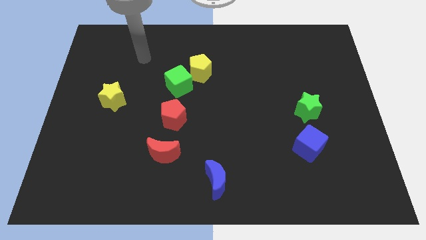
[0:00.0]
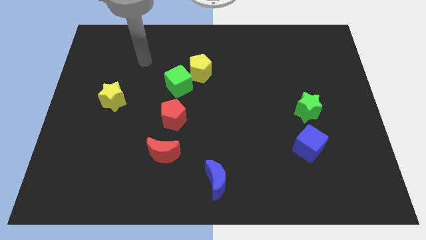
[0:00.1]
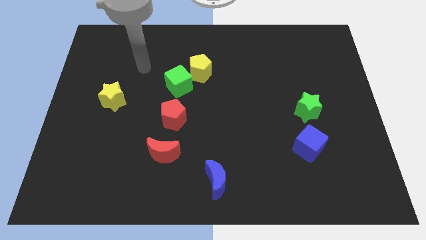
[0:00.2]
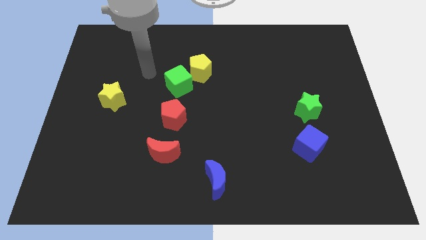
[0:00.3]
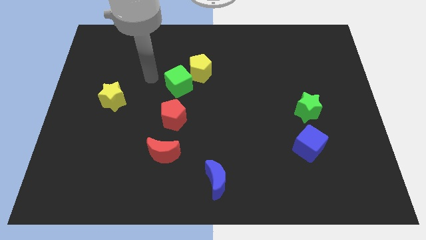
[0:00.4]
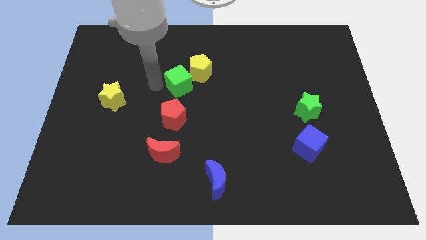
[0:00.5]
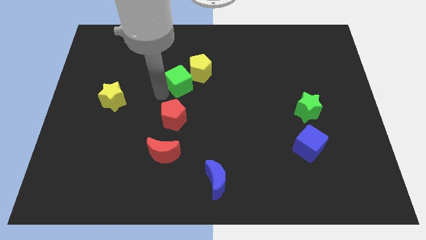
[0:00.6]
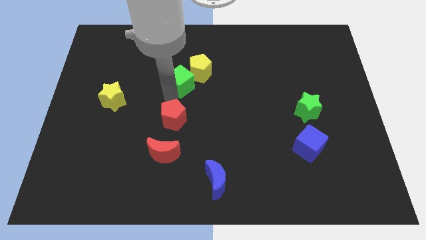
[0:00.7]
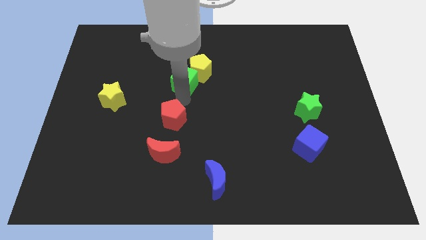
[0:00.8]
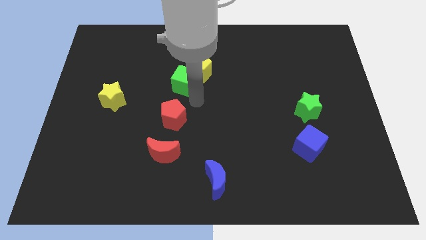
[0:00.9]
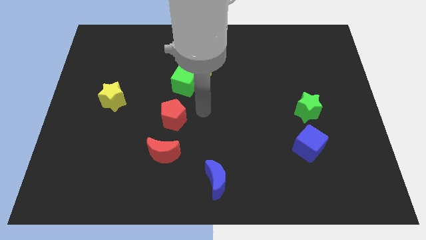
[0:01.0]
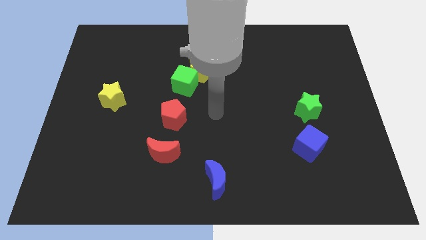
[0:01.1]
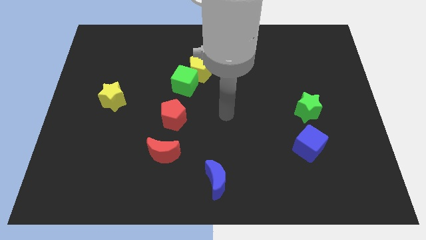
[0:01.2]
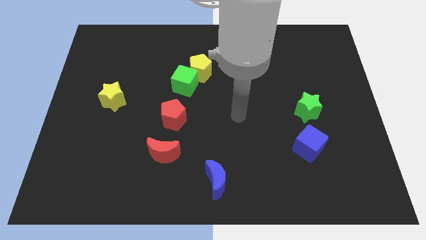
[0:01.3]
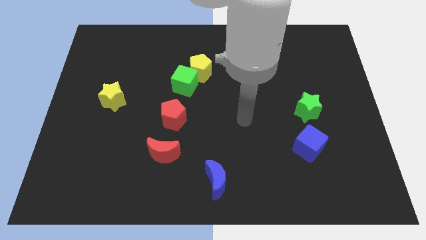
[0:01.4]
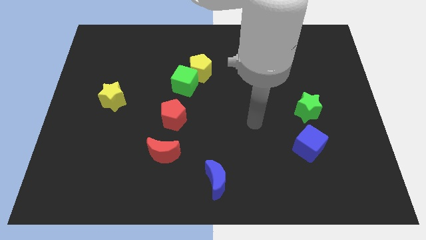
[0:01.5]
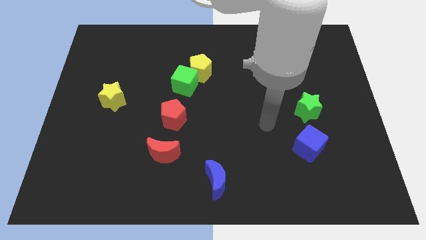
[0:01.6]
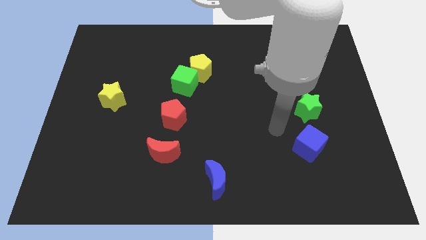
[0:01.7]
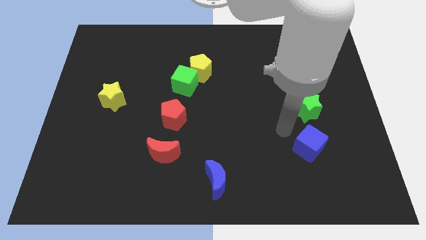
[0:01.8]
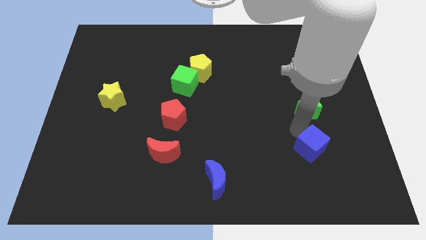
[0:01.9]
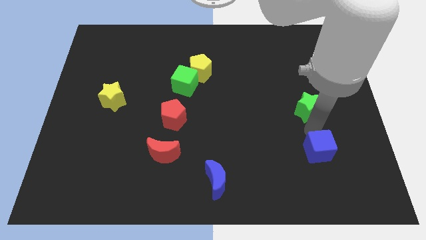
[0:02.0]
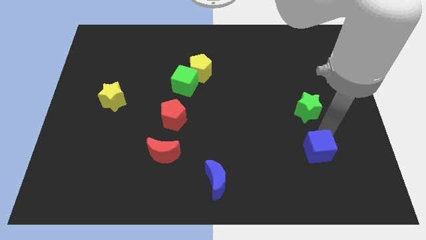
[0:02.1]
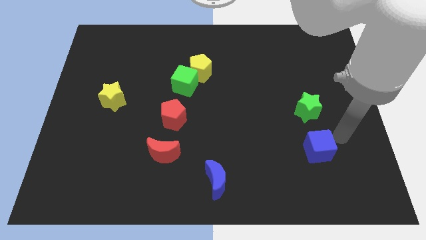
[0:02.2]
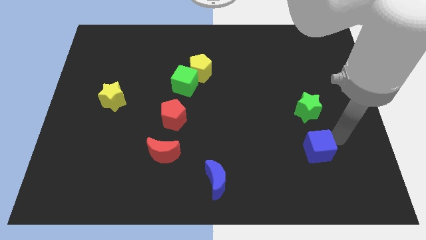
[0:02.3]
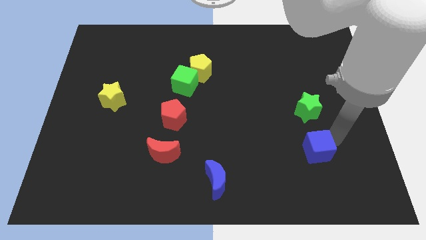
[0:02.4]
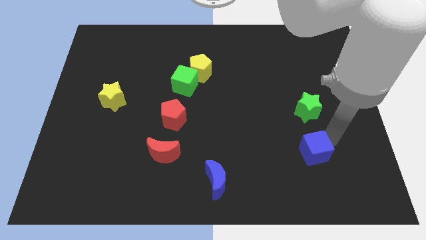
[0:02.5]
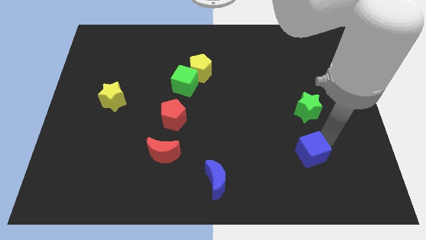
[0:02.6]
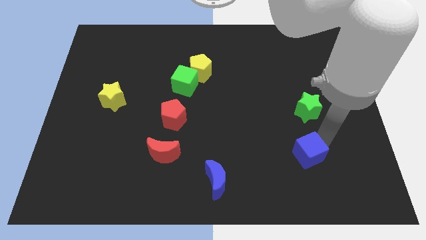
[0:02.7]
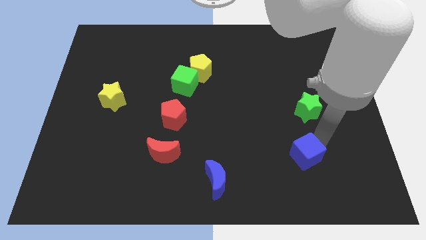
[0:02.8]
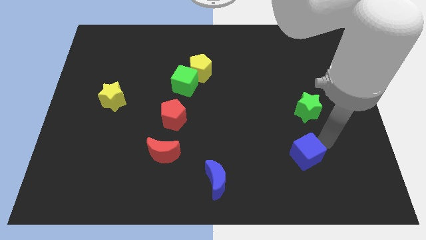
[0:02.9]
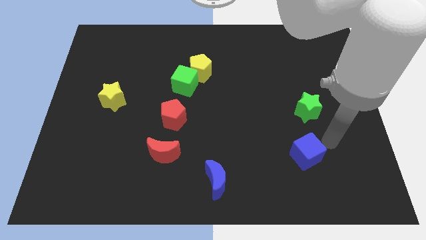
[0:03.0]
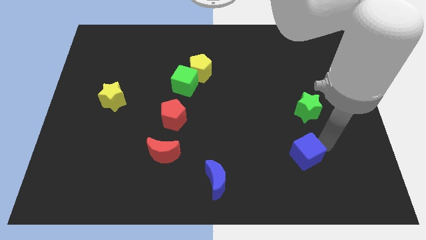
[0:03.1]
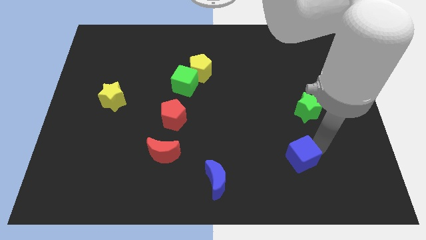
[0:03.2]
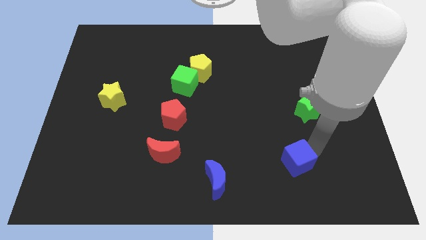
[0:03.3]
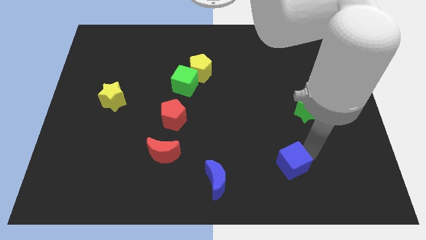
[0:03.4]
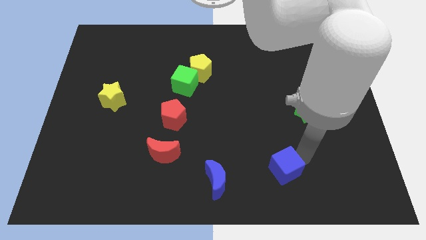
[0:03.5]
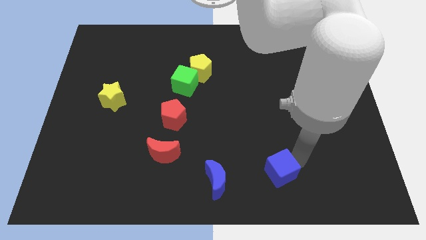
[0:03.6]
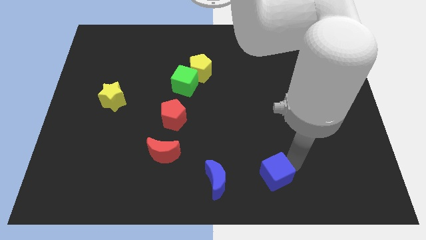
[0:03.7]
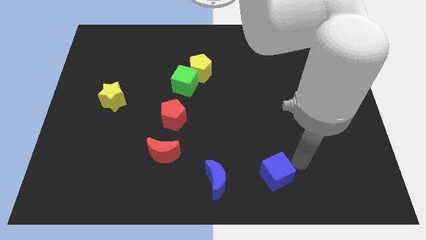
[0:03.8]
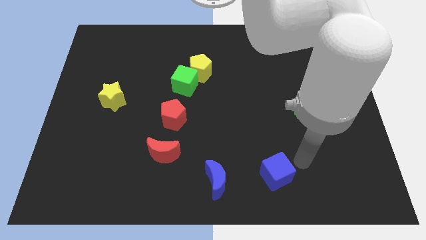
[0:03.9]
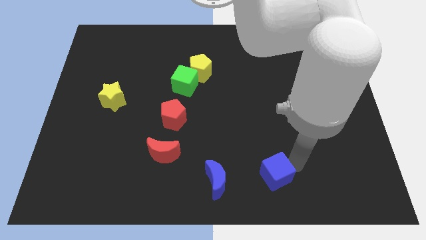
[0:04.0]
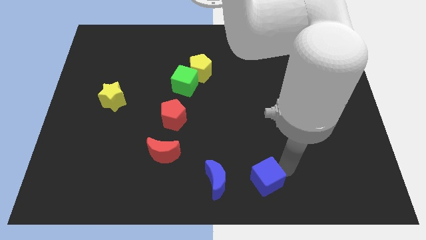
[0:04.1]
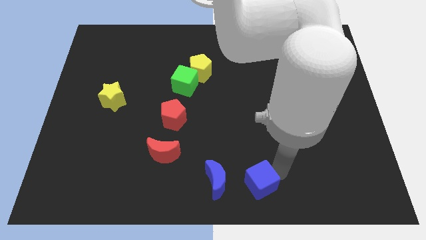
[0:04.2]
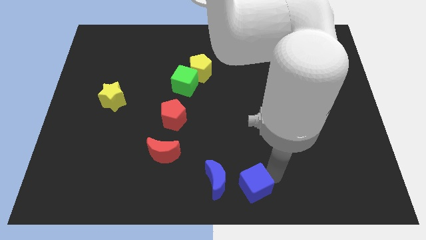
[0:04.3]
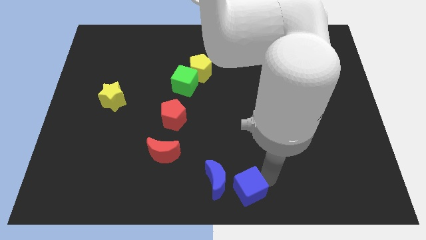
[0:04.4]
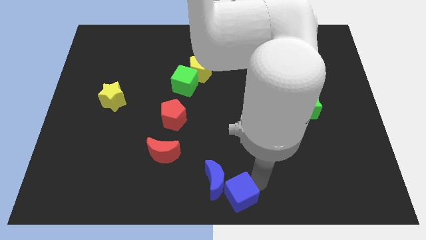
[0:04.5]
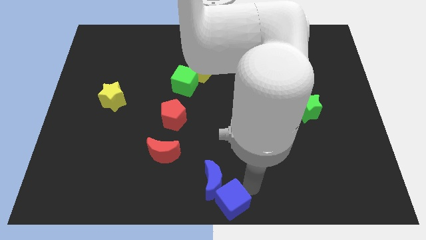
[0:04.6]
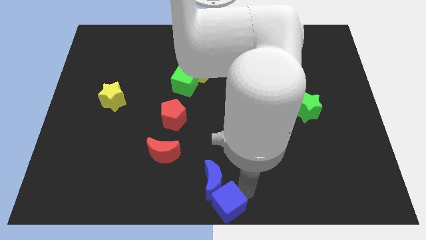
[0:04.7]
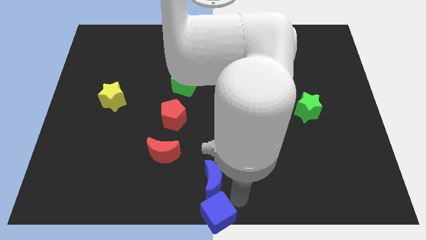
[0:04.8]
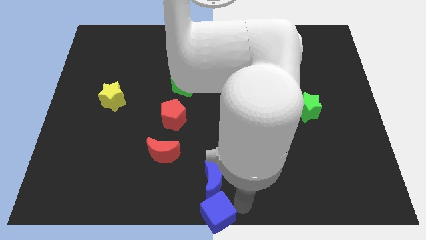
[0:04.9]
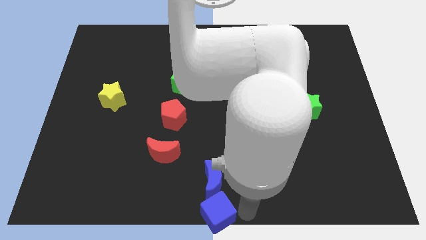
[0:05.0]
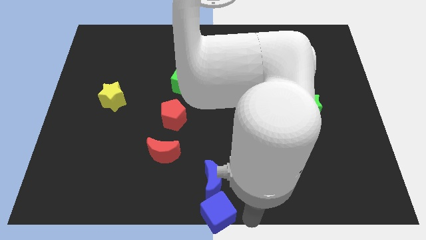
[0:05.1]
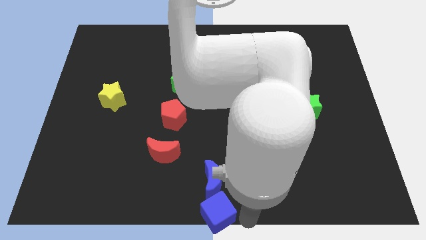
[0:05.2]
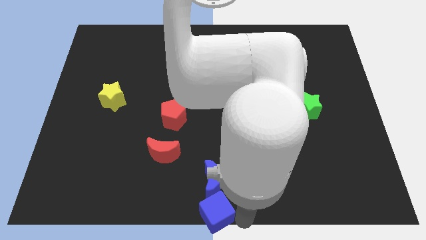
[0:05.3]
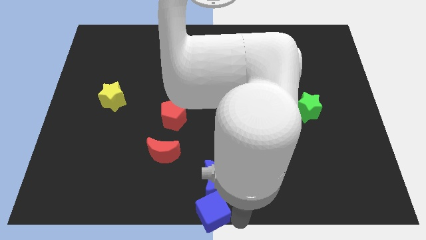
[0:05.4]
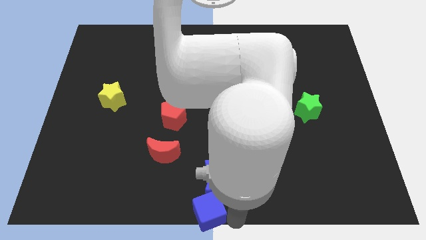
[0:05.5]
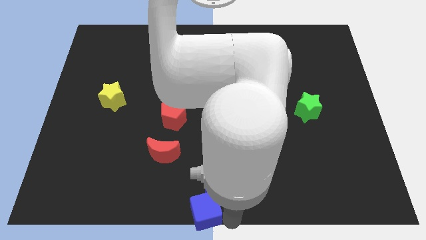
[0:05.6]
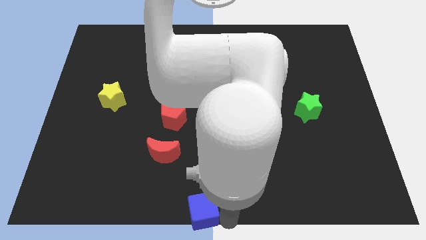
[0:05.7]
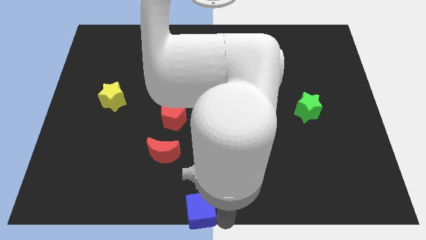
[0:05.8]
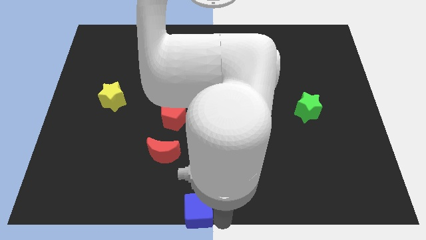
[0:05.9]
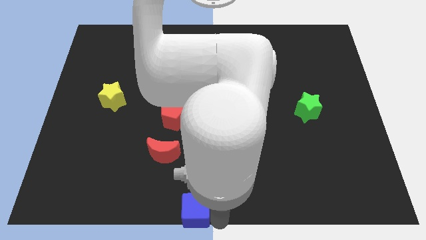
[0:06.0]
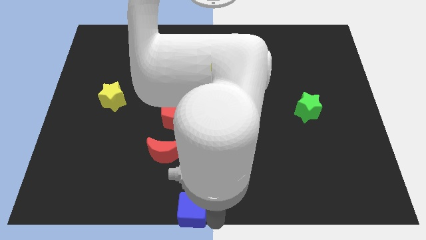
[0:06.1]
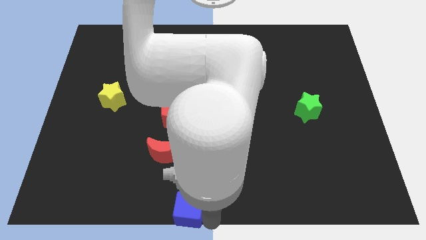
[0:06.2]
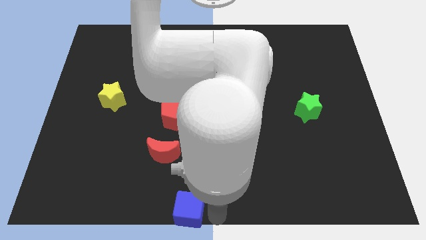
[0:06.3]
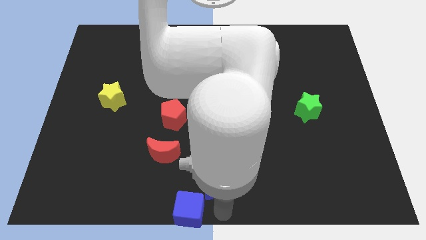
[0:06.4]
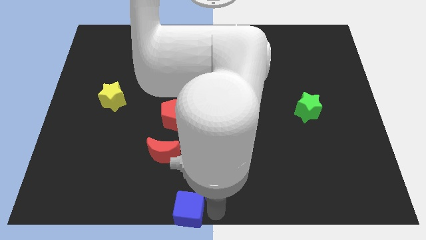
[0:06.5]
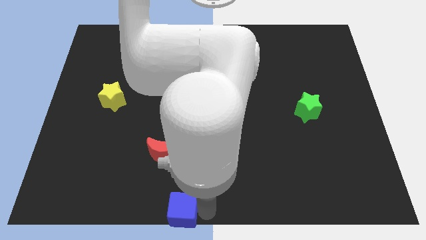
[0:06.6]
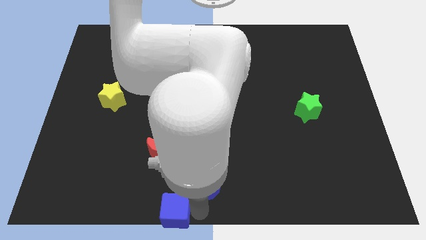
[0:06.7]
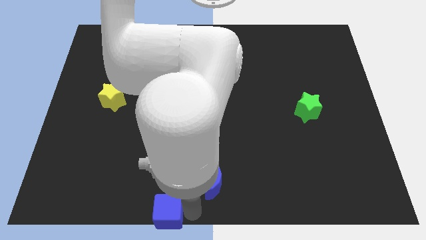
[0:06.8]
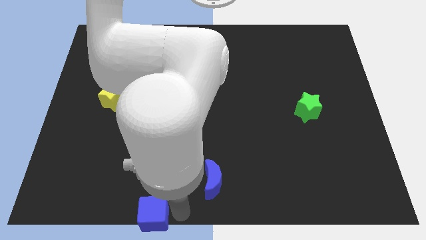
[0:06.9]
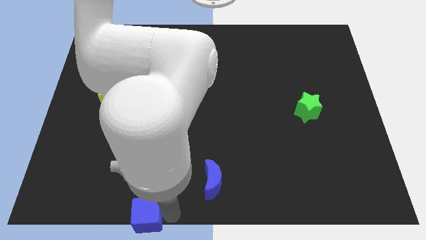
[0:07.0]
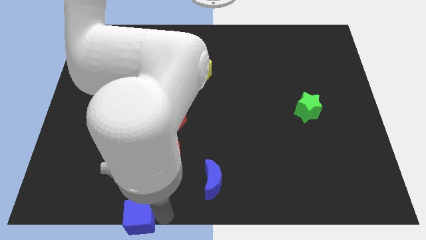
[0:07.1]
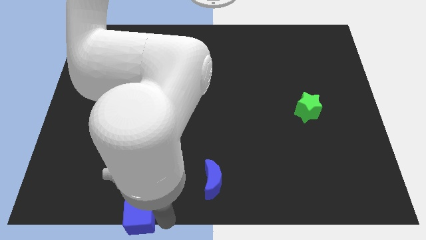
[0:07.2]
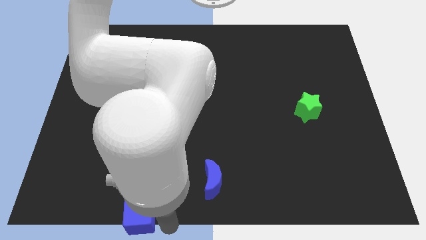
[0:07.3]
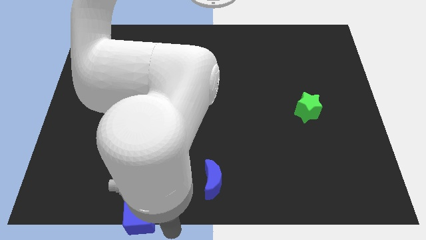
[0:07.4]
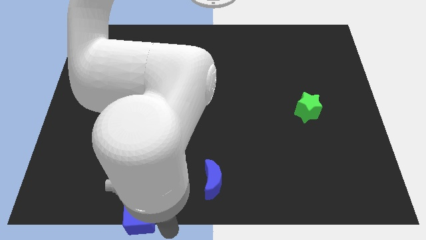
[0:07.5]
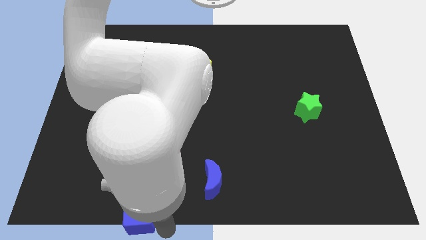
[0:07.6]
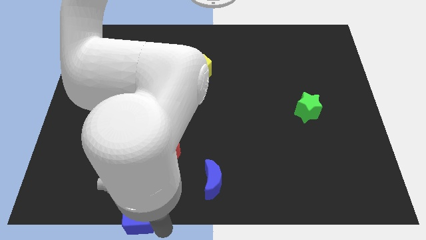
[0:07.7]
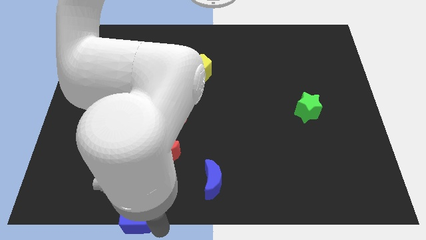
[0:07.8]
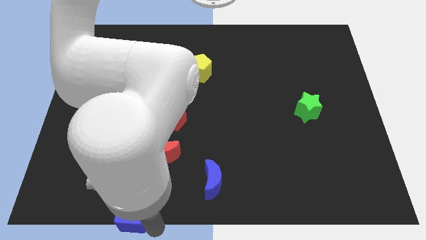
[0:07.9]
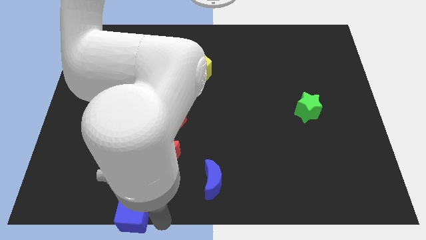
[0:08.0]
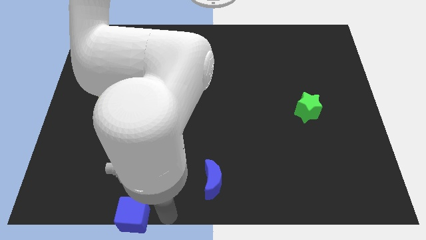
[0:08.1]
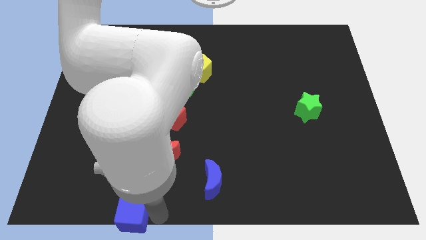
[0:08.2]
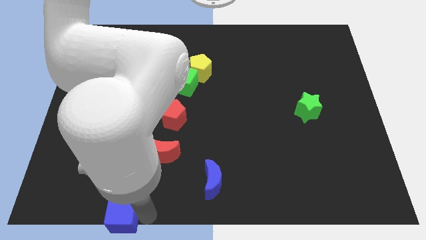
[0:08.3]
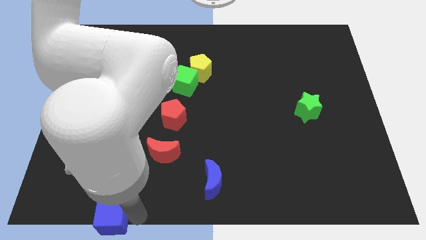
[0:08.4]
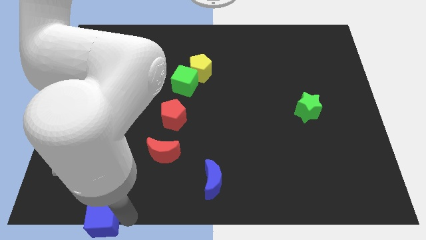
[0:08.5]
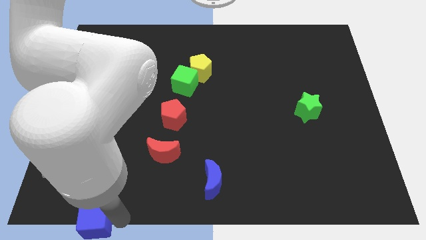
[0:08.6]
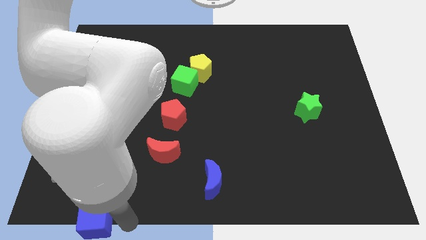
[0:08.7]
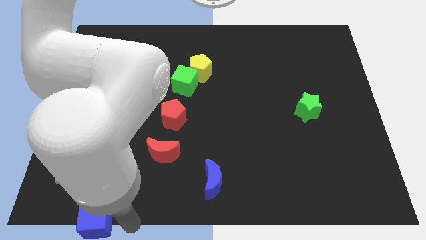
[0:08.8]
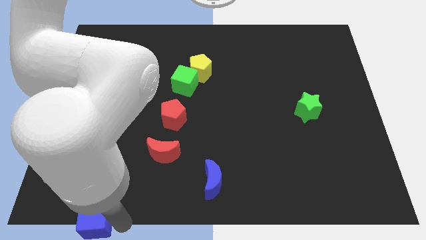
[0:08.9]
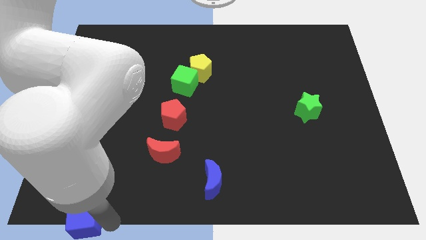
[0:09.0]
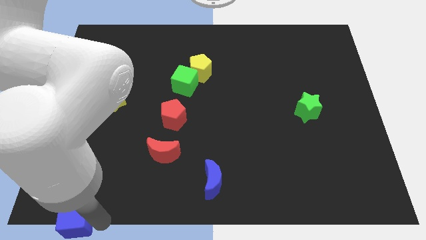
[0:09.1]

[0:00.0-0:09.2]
slide the blue cube to the bottom left corner
